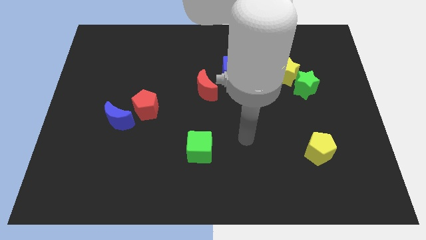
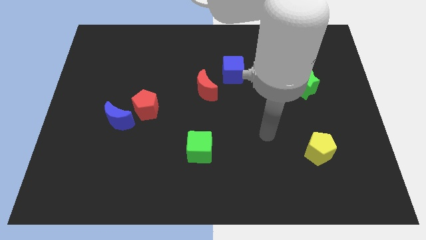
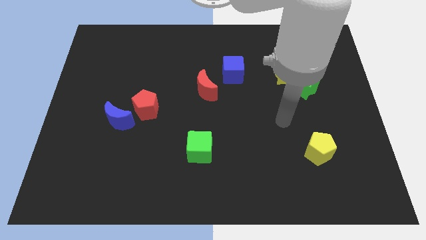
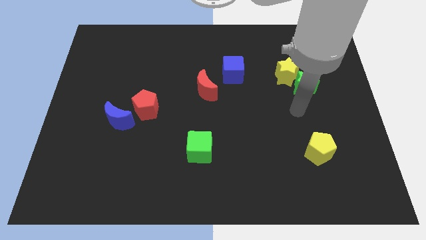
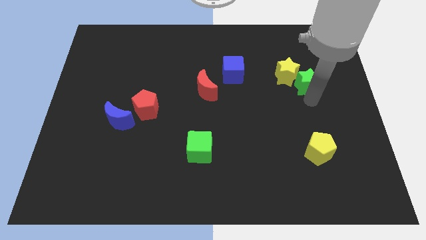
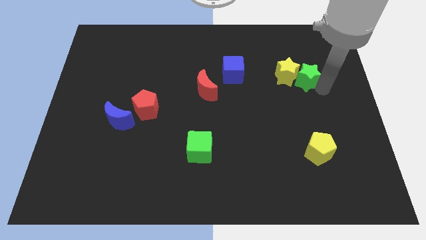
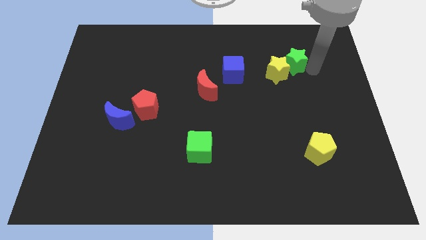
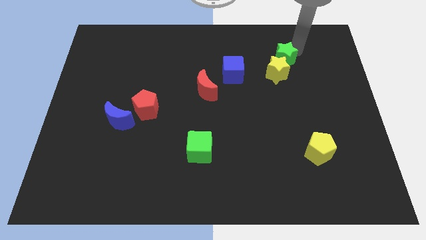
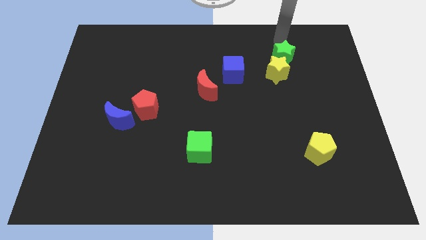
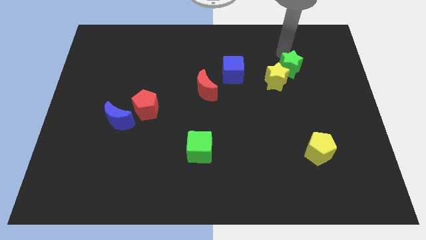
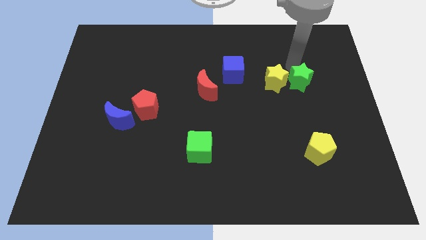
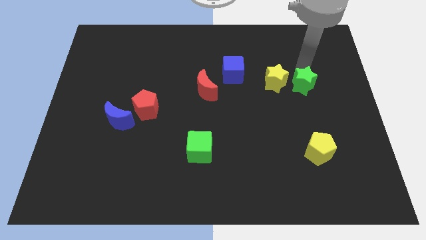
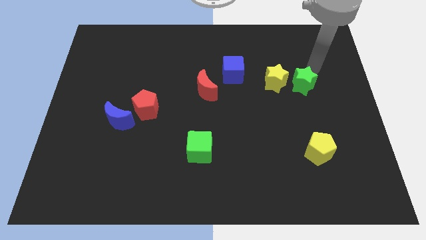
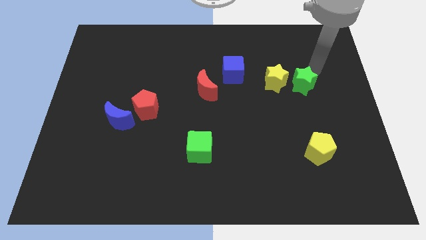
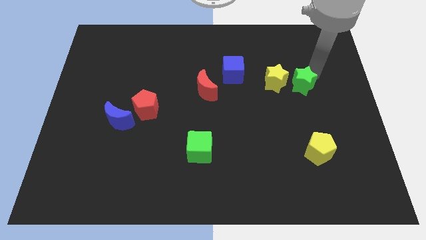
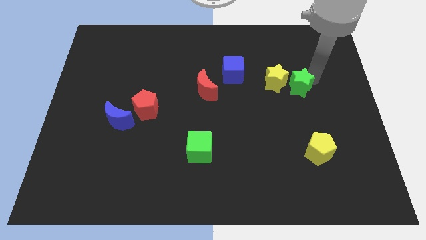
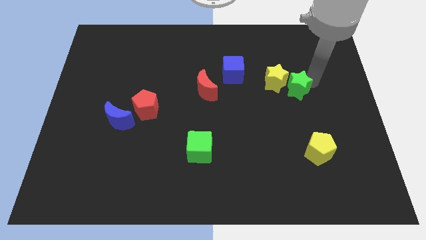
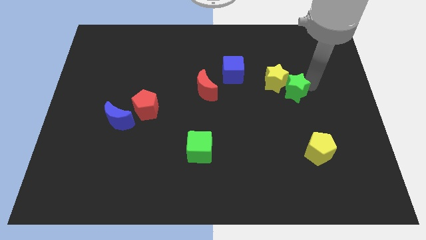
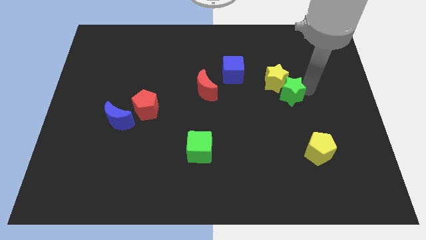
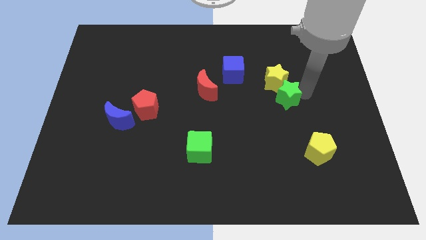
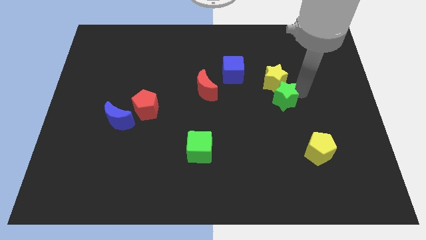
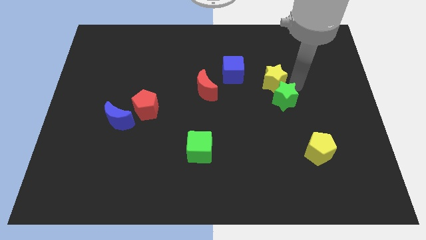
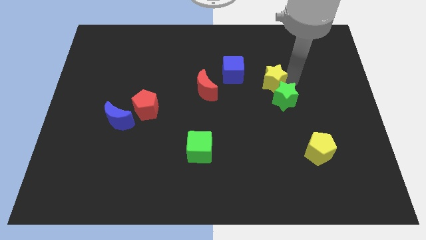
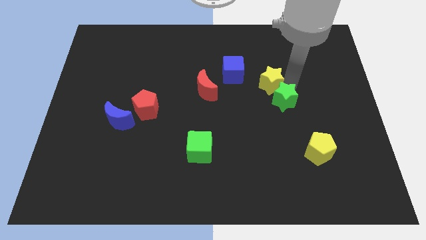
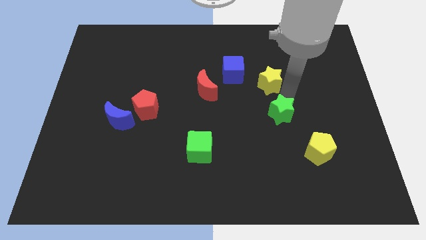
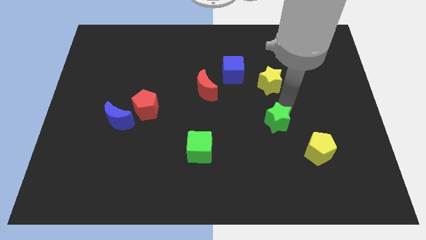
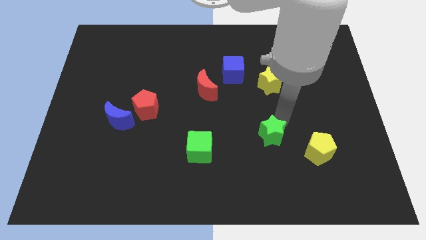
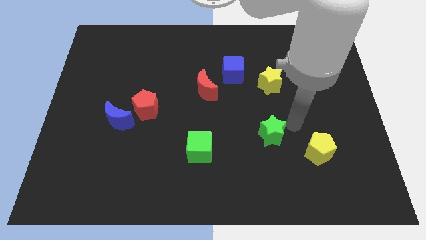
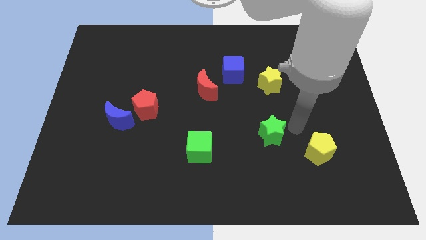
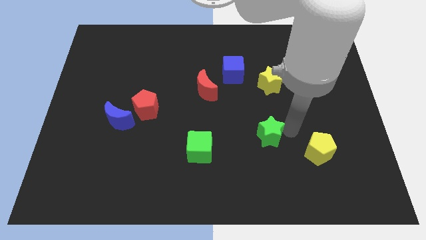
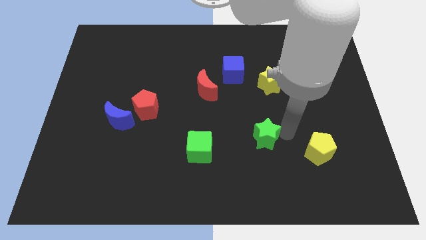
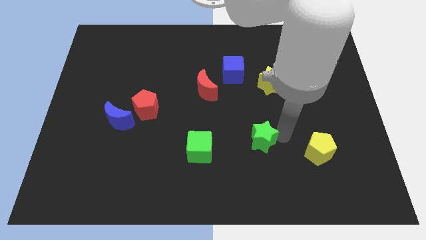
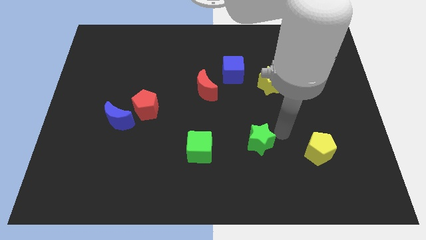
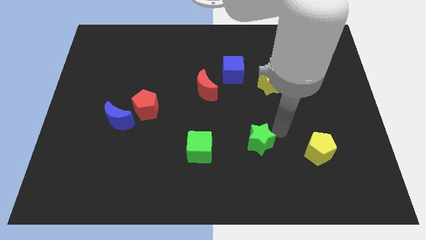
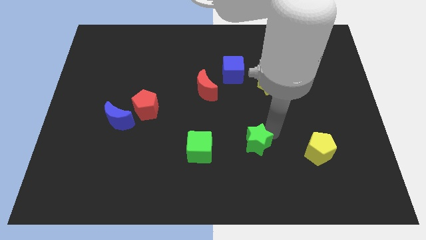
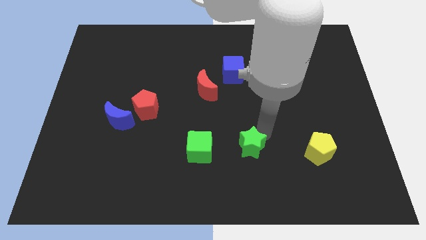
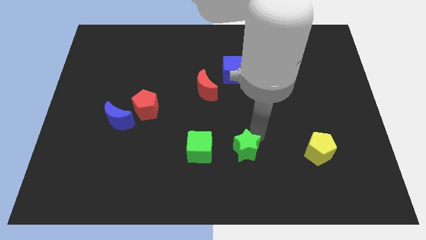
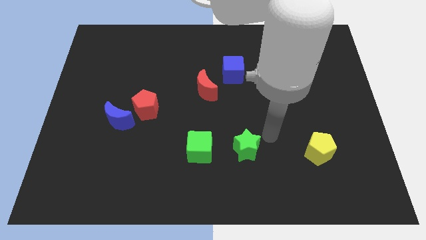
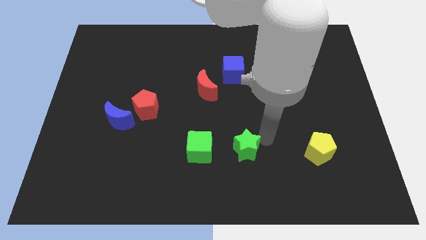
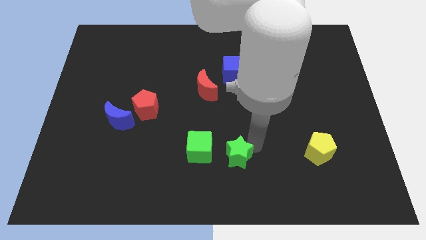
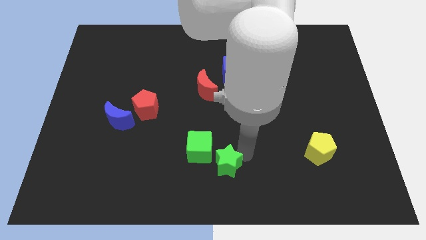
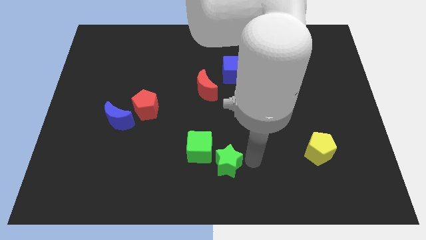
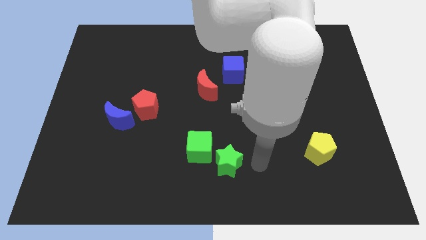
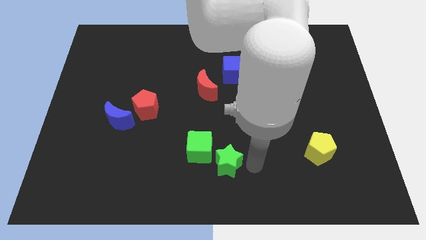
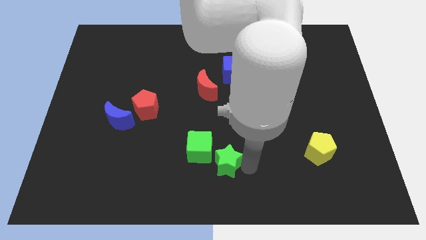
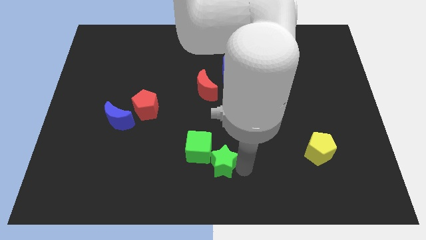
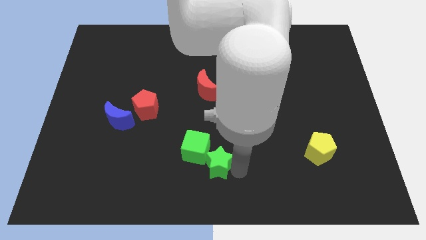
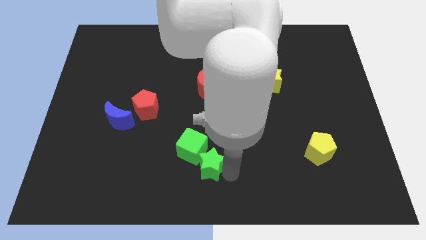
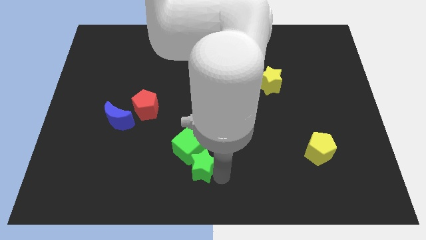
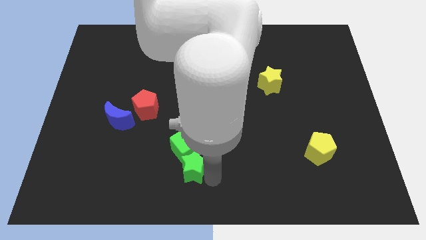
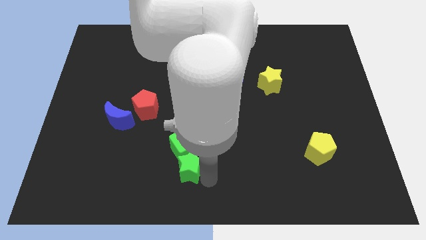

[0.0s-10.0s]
move the green star to the bottom left of the green cube

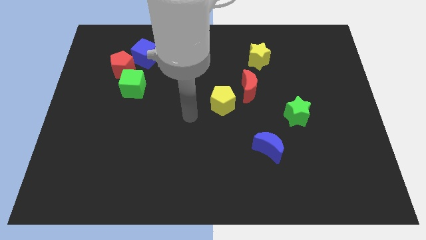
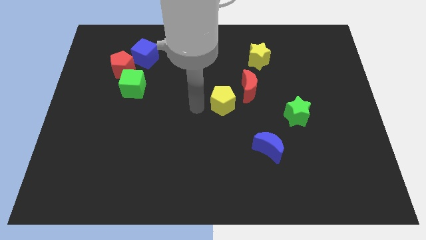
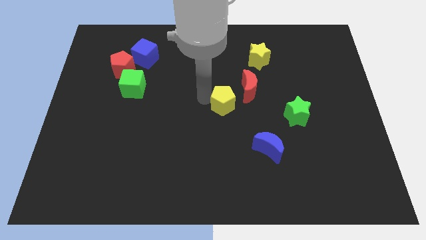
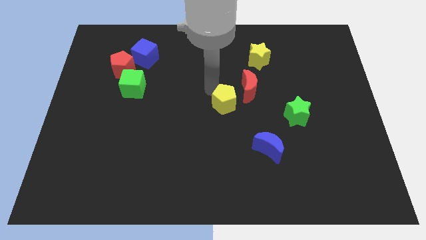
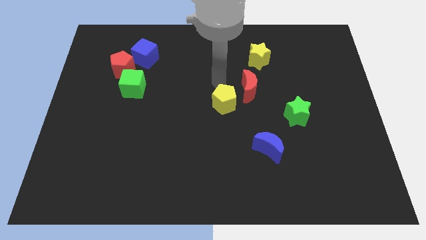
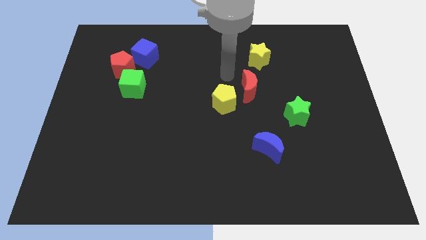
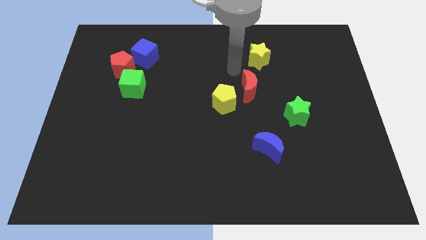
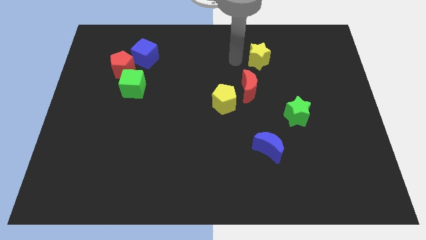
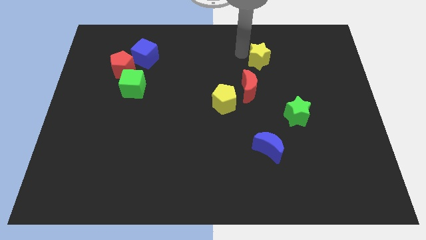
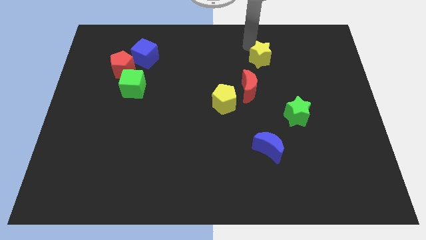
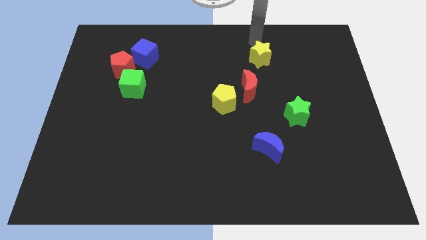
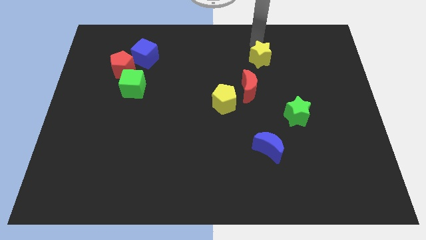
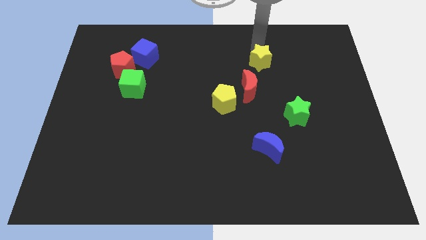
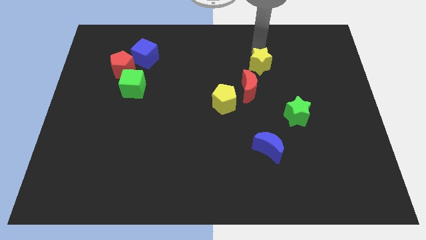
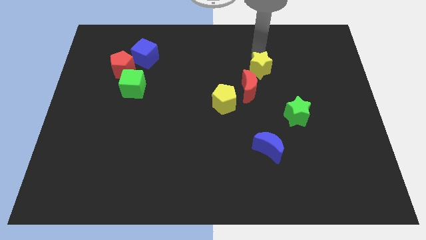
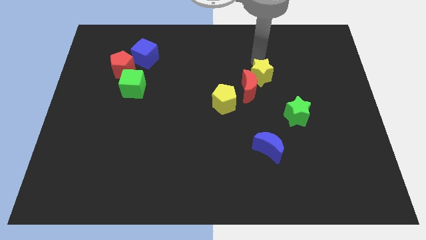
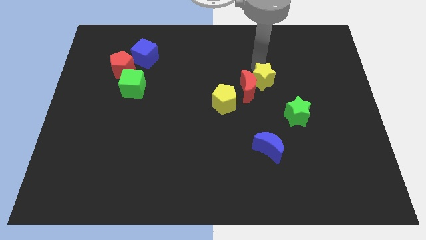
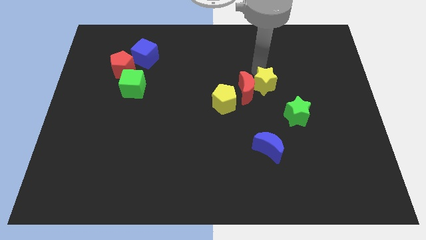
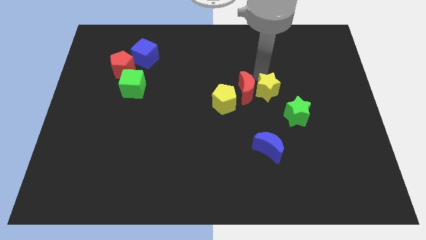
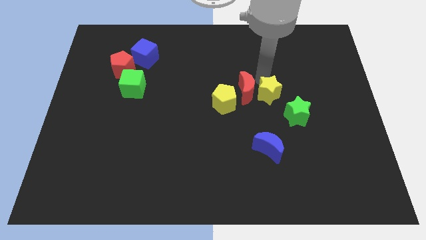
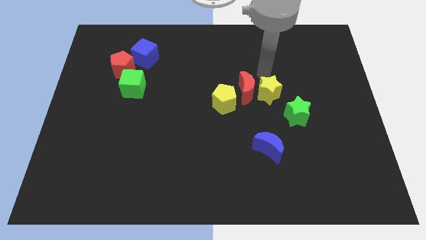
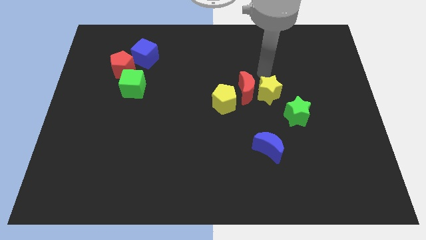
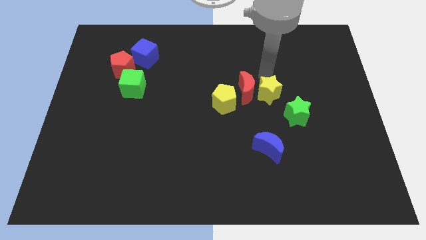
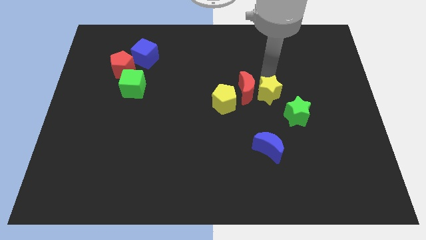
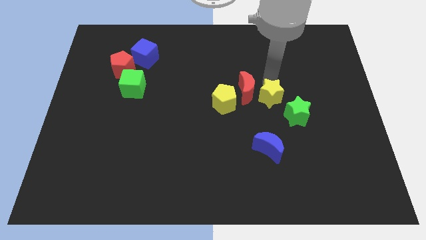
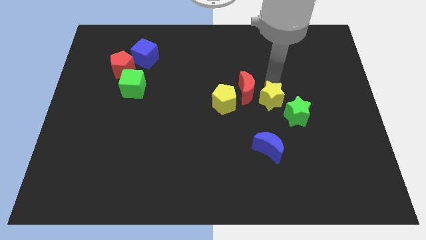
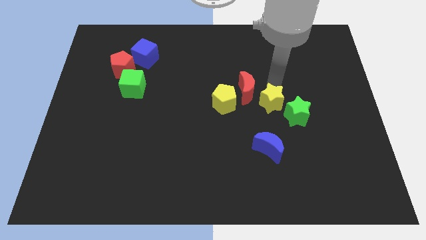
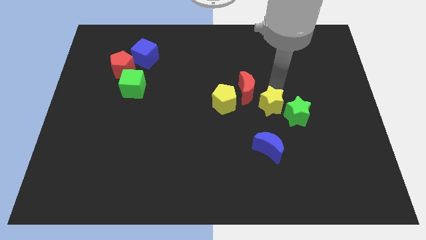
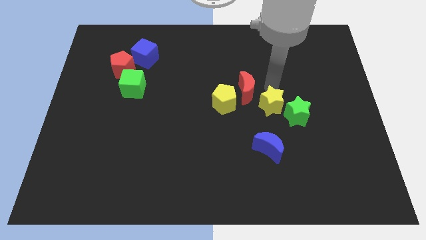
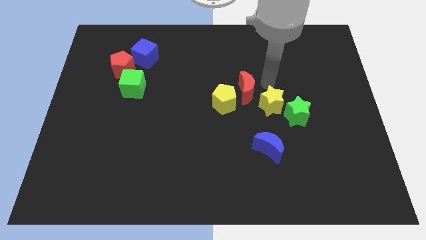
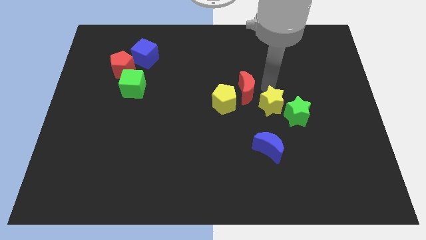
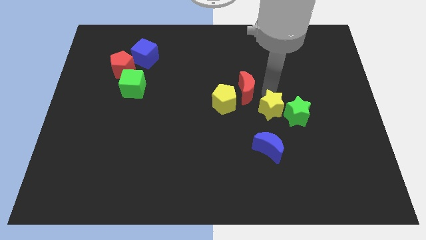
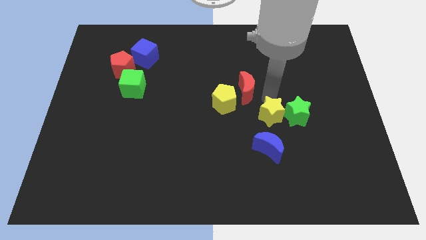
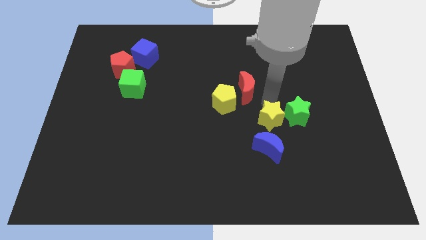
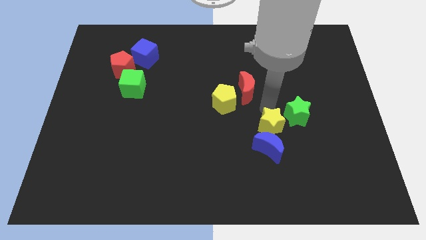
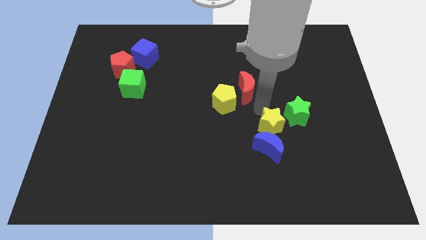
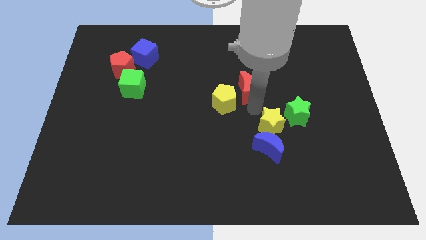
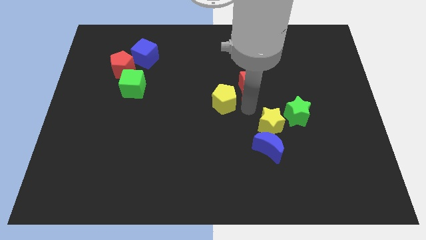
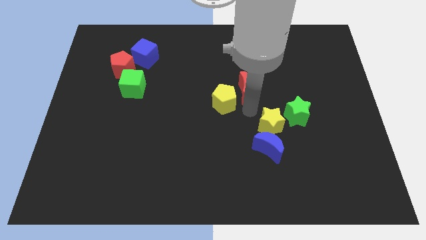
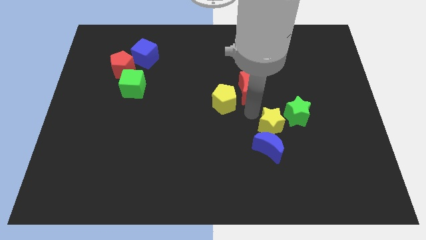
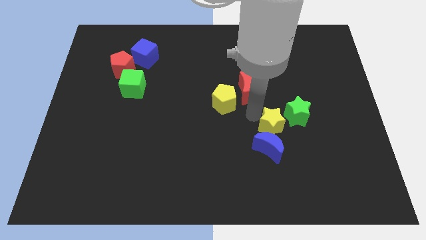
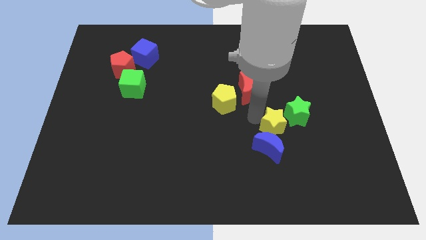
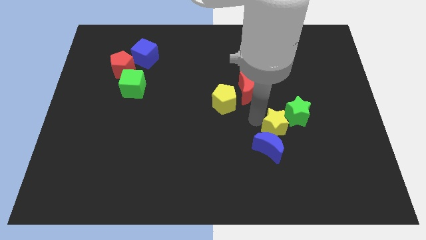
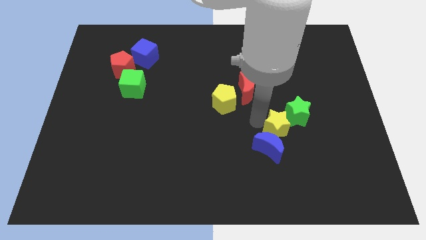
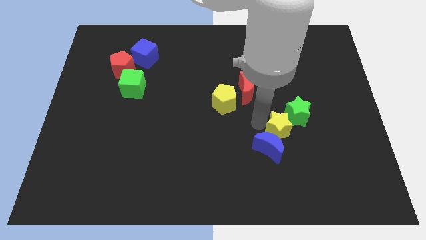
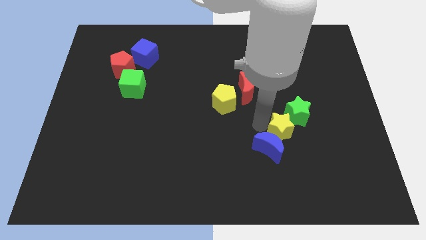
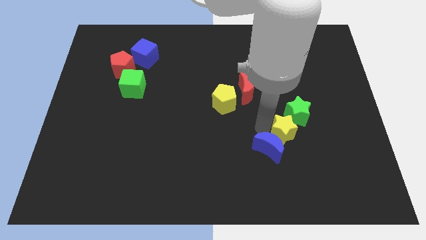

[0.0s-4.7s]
put the yellow star just right of the blue moon
